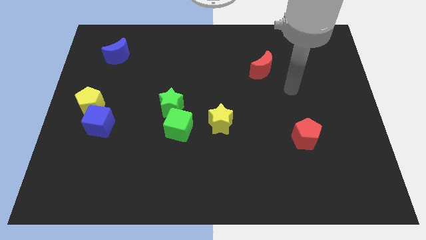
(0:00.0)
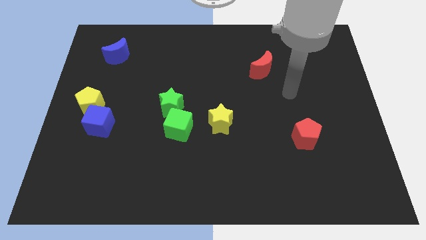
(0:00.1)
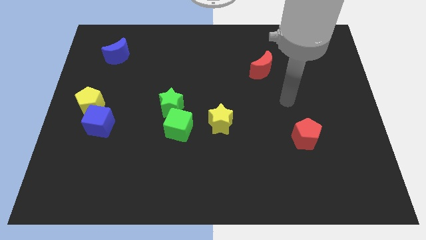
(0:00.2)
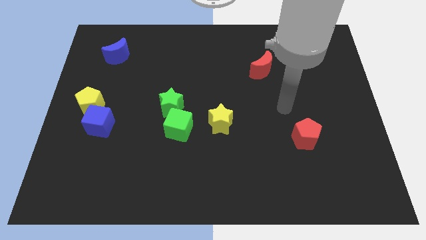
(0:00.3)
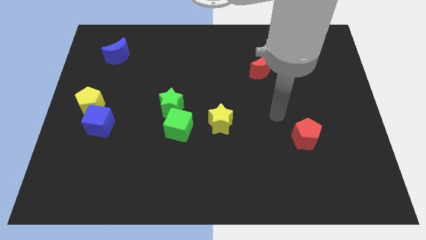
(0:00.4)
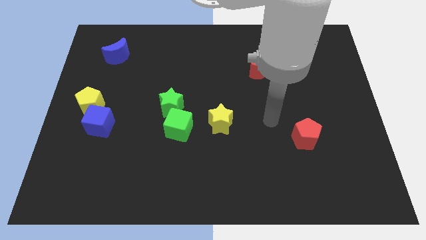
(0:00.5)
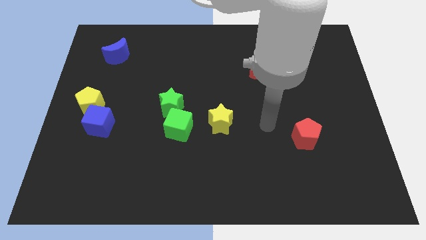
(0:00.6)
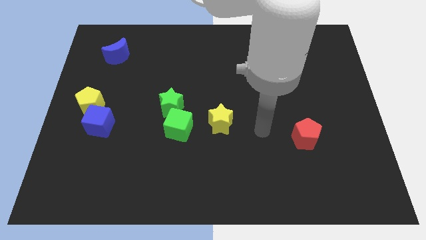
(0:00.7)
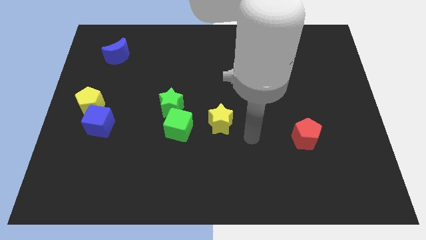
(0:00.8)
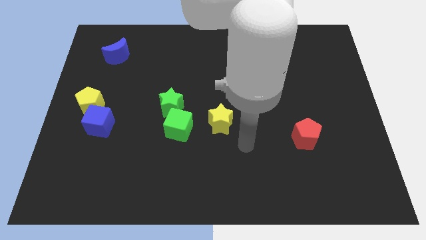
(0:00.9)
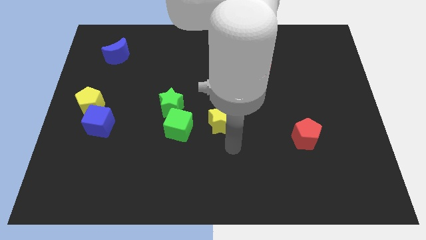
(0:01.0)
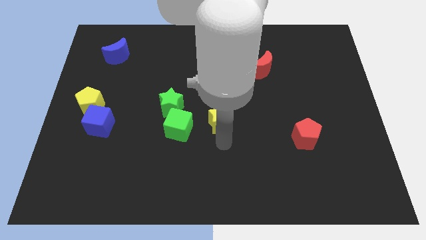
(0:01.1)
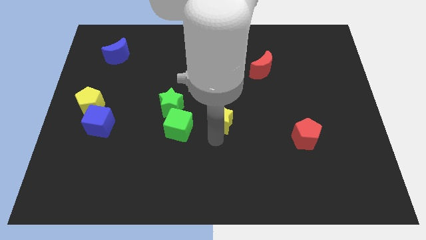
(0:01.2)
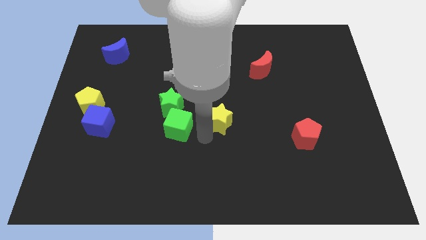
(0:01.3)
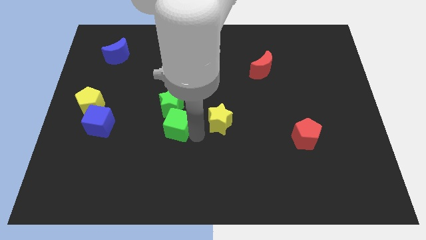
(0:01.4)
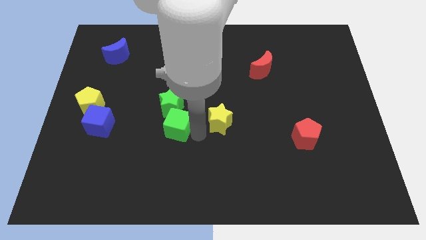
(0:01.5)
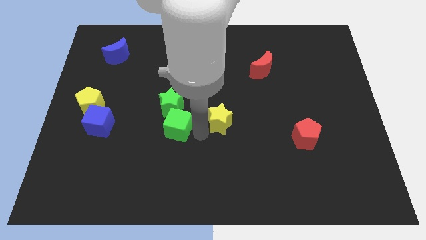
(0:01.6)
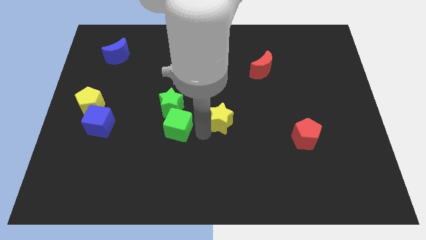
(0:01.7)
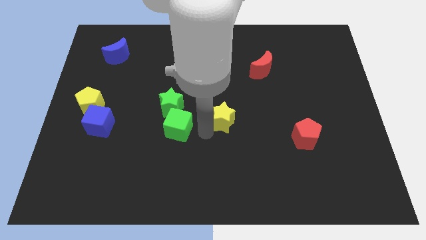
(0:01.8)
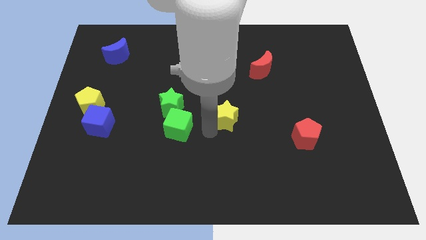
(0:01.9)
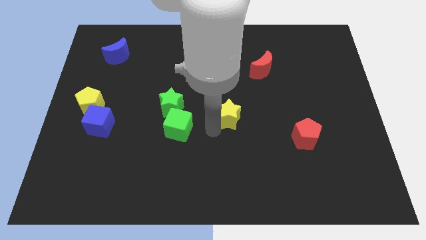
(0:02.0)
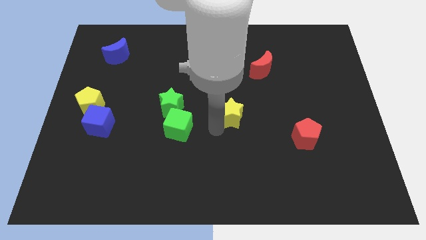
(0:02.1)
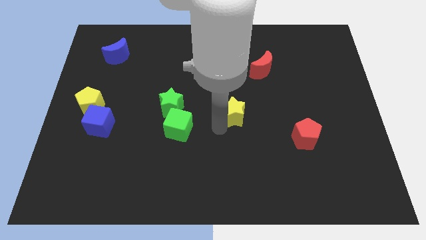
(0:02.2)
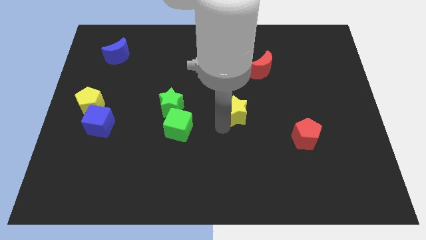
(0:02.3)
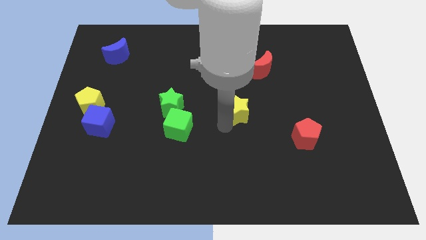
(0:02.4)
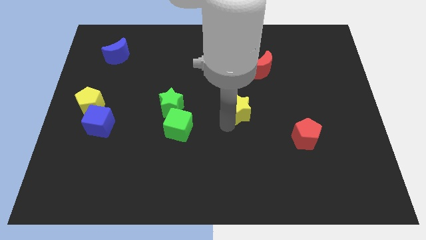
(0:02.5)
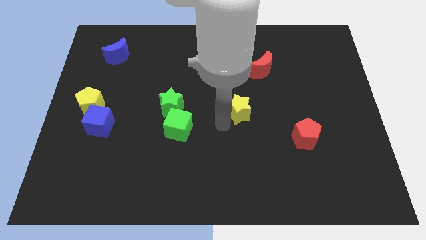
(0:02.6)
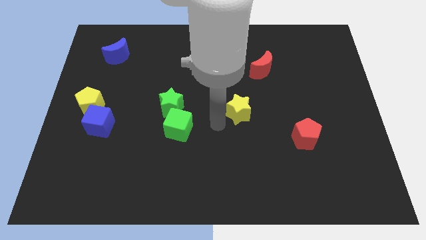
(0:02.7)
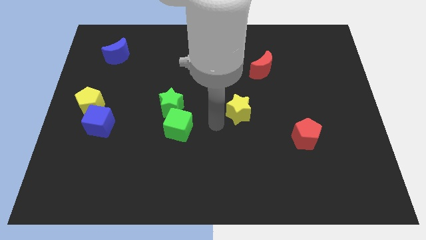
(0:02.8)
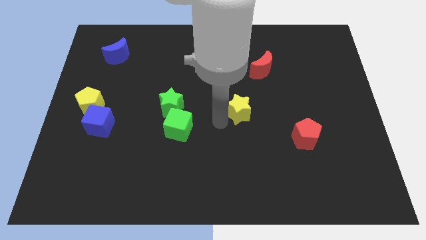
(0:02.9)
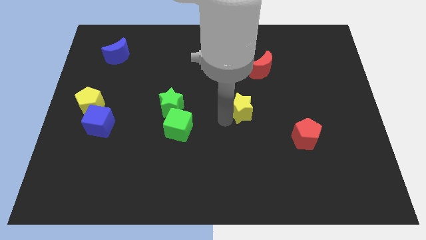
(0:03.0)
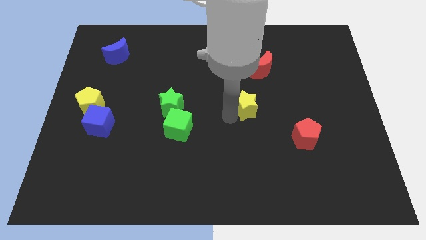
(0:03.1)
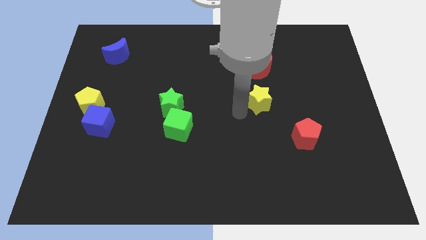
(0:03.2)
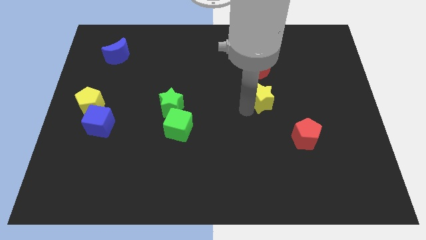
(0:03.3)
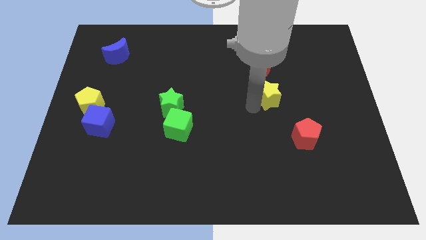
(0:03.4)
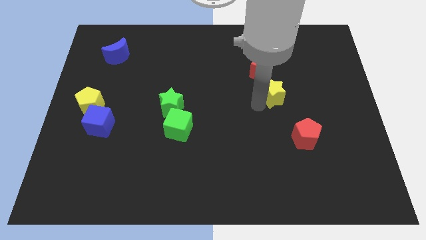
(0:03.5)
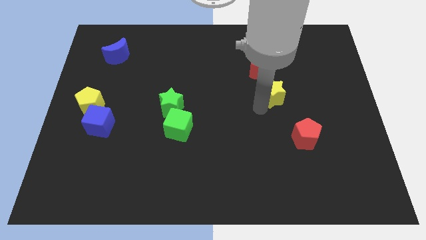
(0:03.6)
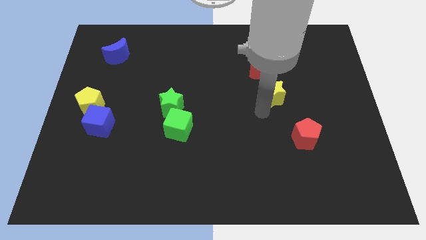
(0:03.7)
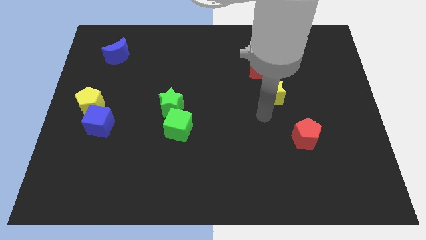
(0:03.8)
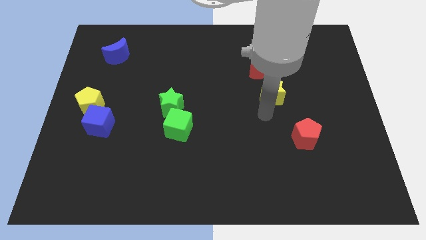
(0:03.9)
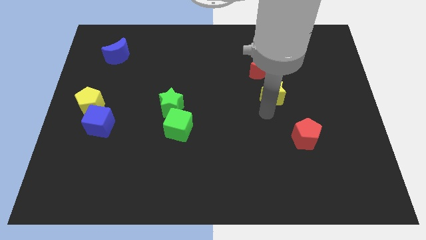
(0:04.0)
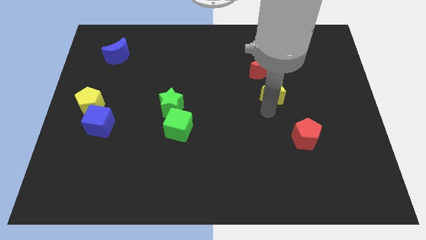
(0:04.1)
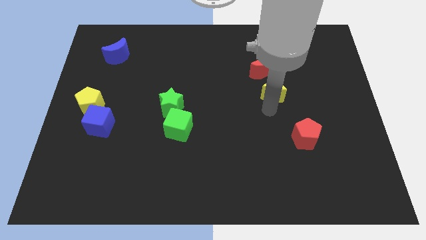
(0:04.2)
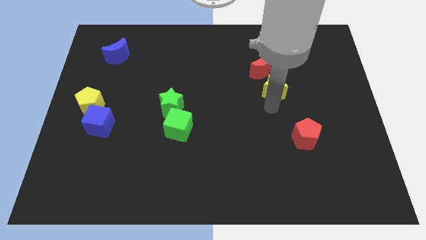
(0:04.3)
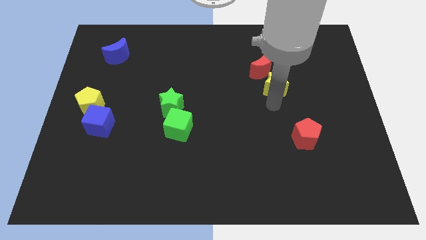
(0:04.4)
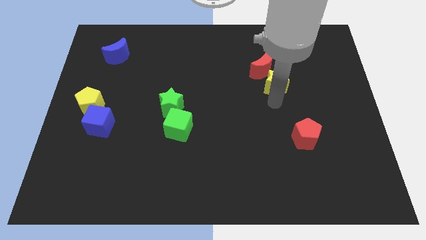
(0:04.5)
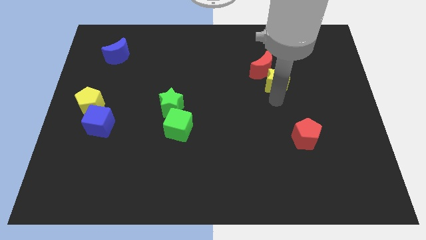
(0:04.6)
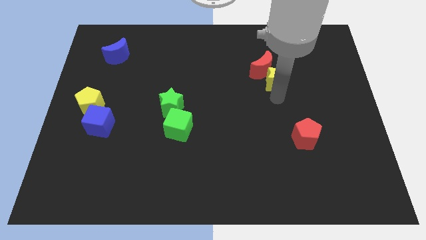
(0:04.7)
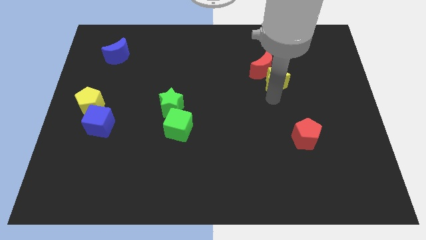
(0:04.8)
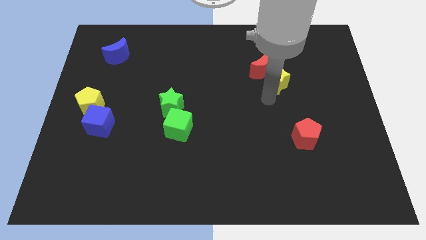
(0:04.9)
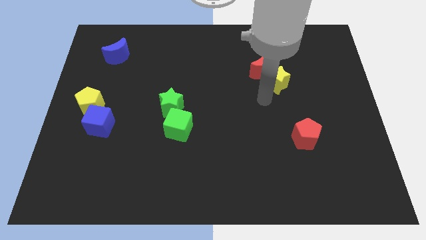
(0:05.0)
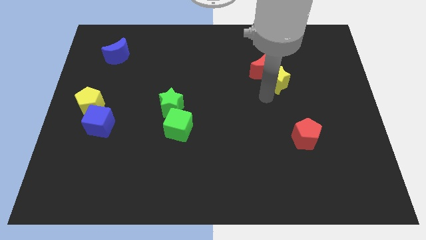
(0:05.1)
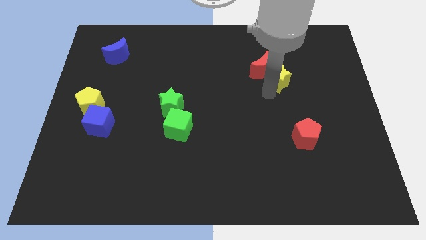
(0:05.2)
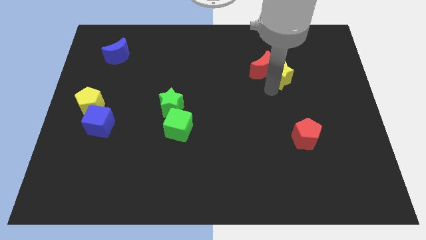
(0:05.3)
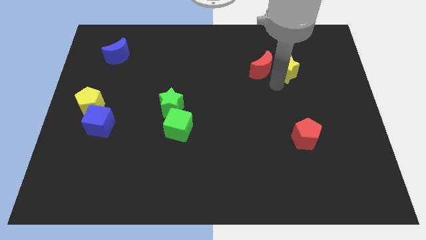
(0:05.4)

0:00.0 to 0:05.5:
slide the yellow star to the top right of the red moon

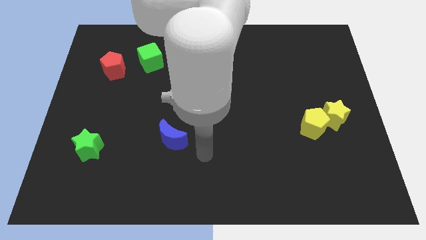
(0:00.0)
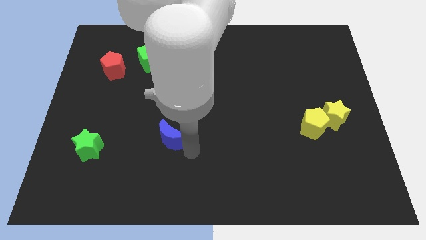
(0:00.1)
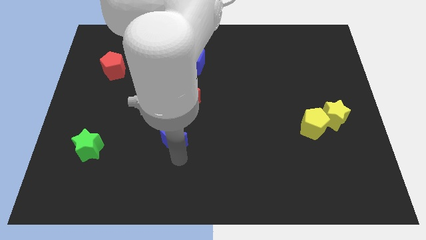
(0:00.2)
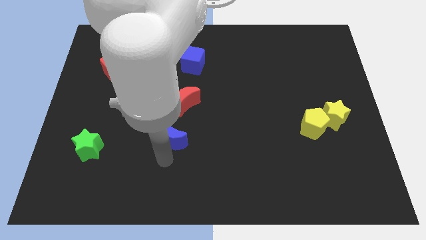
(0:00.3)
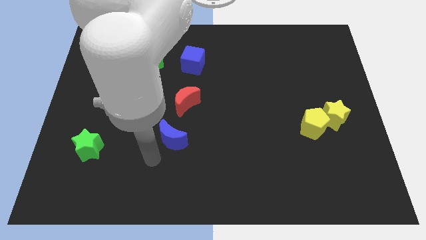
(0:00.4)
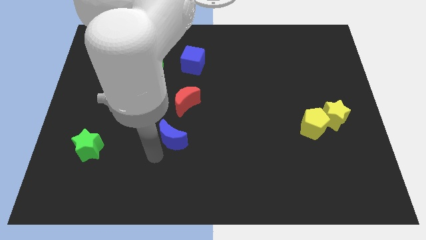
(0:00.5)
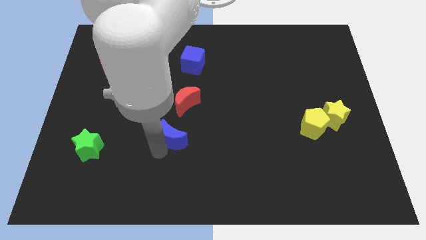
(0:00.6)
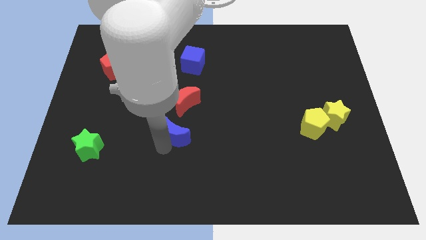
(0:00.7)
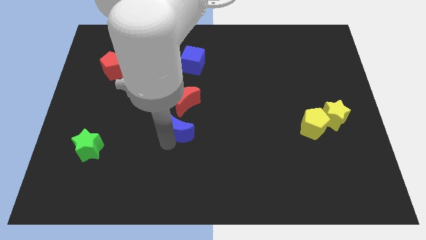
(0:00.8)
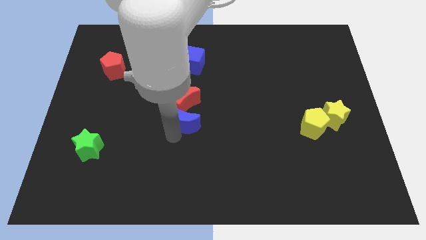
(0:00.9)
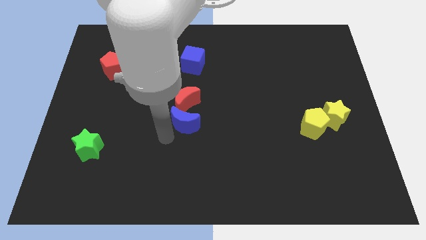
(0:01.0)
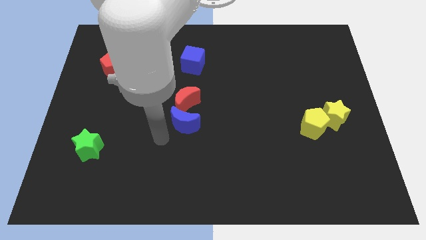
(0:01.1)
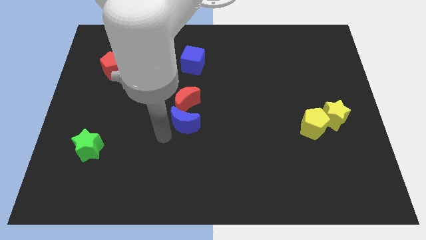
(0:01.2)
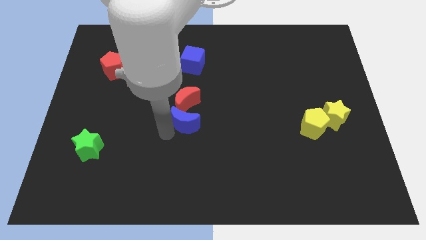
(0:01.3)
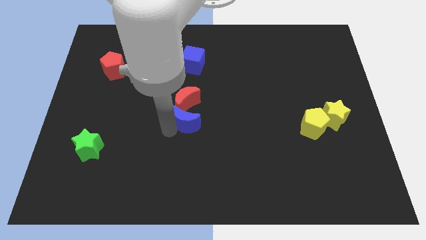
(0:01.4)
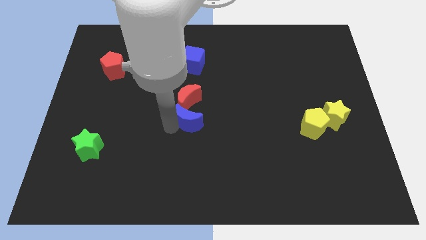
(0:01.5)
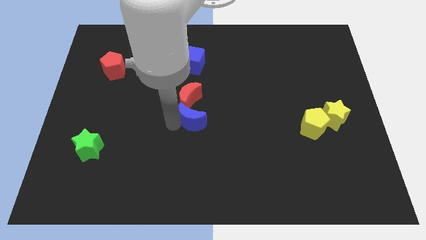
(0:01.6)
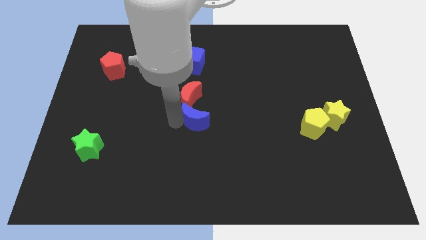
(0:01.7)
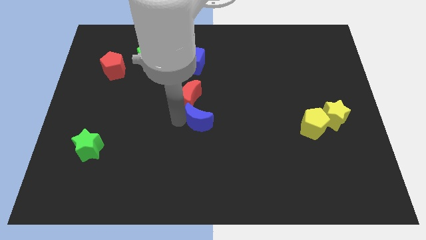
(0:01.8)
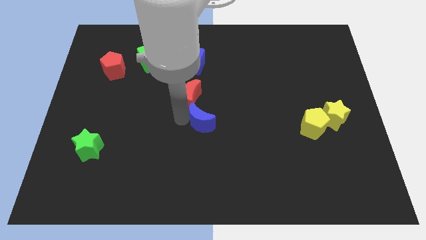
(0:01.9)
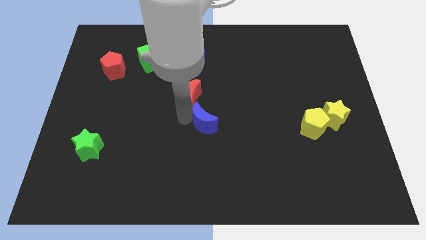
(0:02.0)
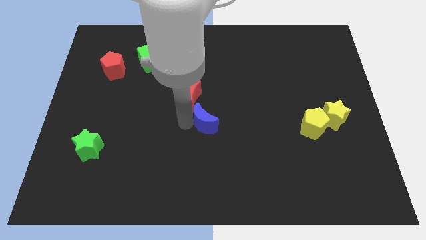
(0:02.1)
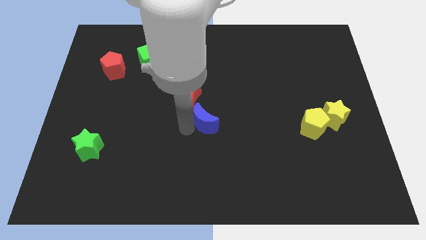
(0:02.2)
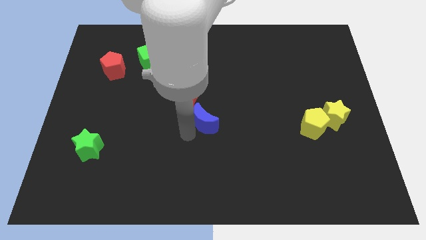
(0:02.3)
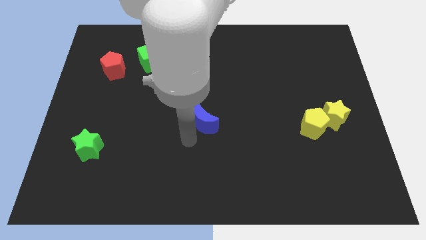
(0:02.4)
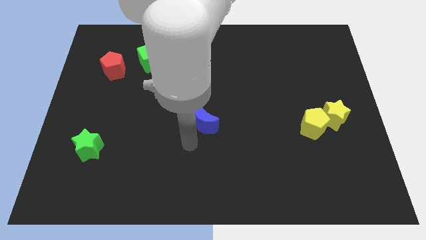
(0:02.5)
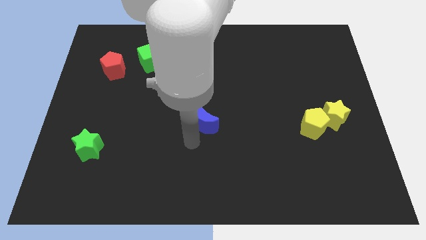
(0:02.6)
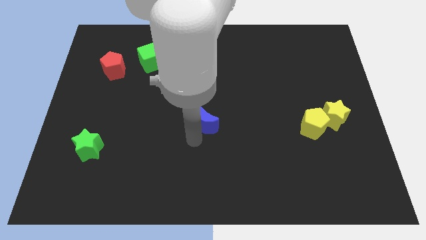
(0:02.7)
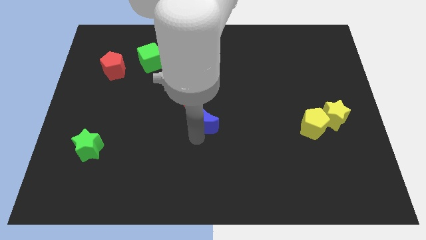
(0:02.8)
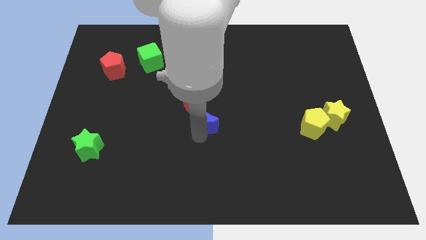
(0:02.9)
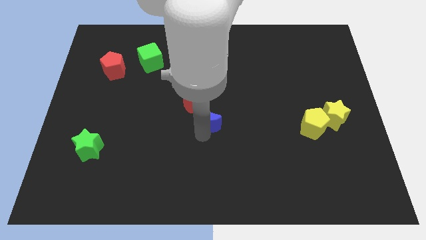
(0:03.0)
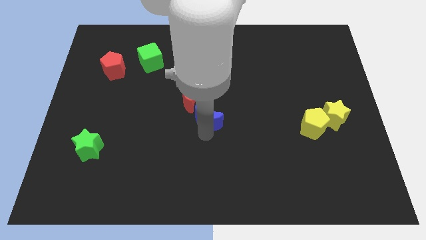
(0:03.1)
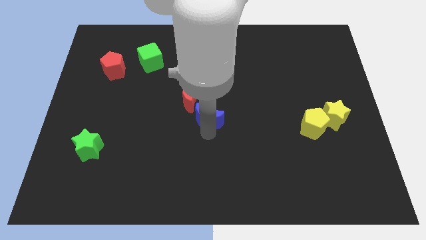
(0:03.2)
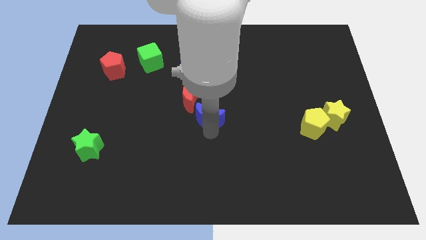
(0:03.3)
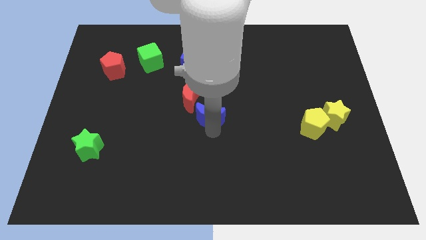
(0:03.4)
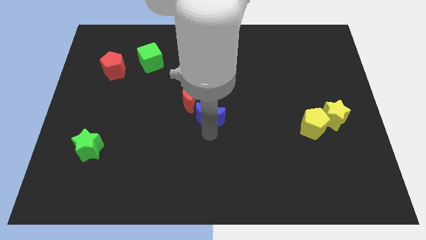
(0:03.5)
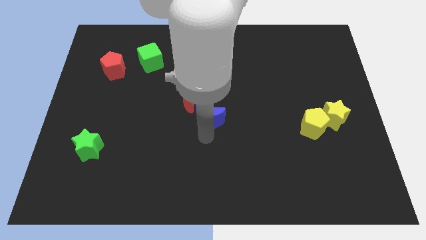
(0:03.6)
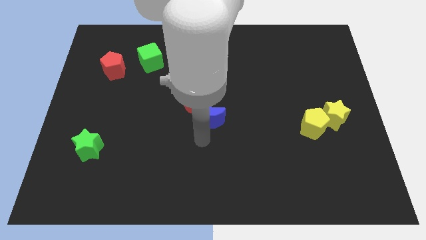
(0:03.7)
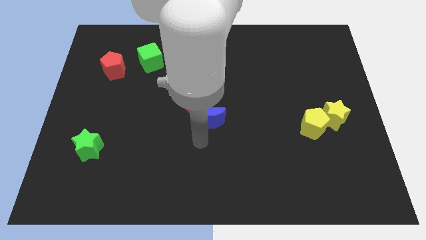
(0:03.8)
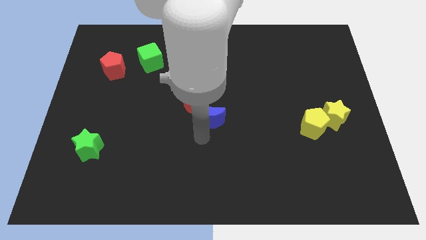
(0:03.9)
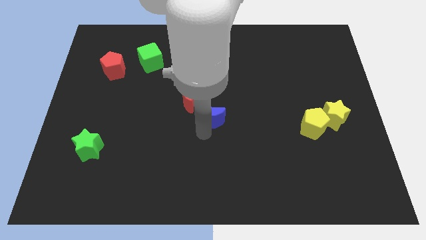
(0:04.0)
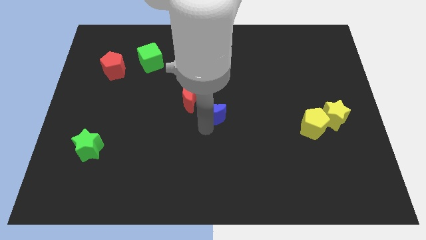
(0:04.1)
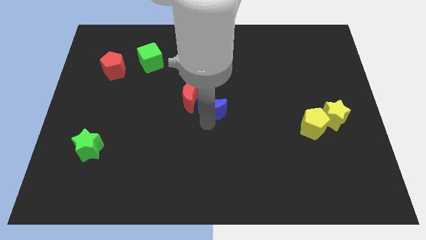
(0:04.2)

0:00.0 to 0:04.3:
move the blue moon right of the red moon
